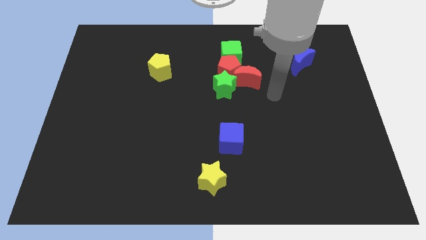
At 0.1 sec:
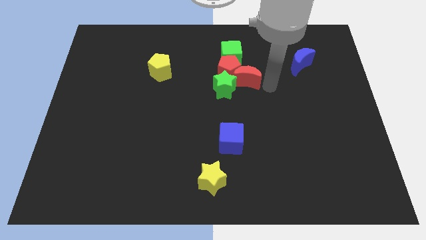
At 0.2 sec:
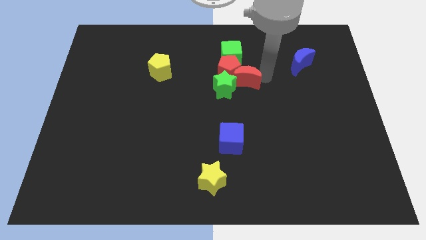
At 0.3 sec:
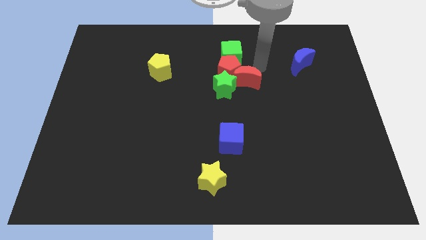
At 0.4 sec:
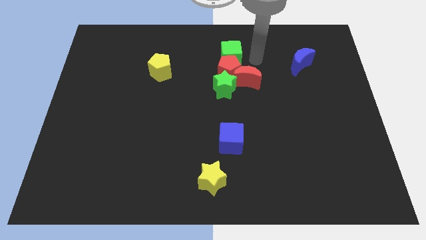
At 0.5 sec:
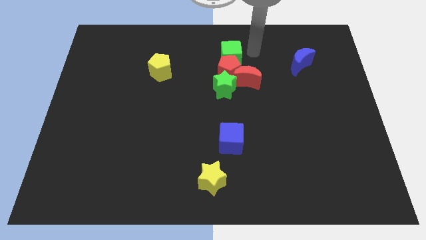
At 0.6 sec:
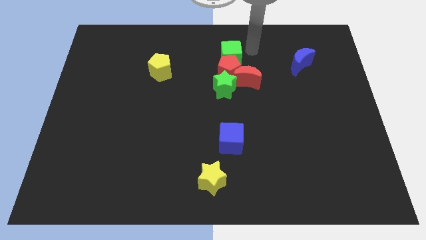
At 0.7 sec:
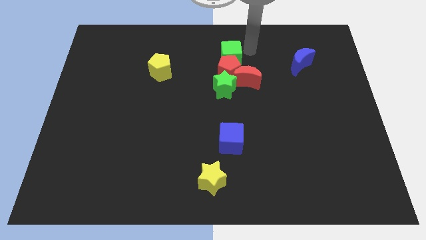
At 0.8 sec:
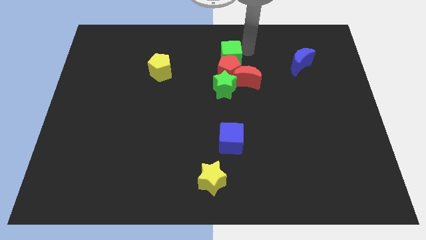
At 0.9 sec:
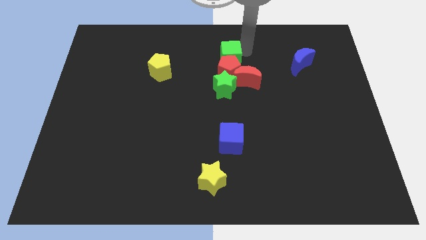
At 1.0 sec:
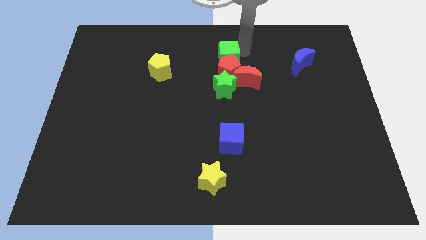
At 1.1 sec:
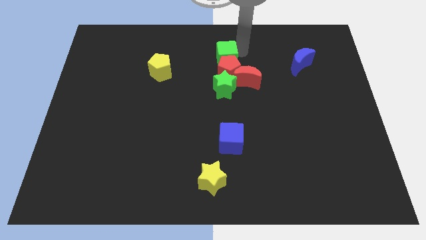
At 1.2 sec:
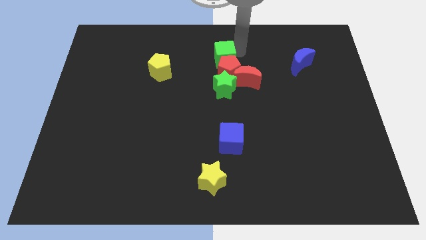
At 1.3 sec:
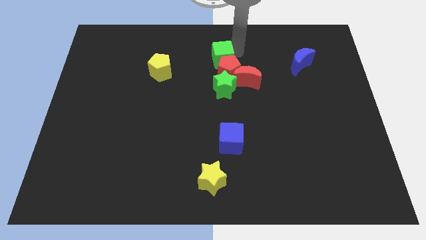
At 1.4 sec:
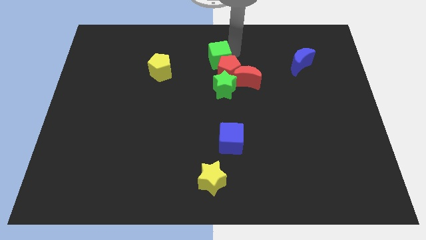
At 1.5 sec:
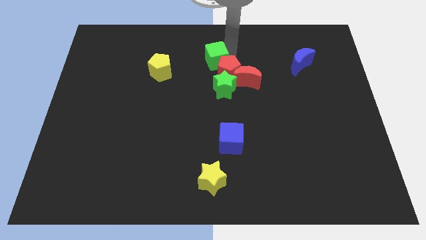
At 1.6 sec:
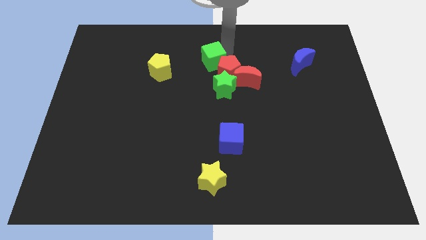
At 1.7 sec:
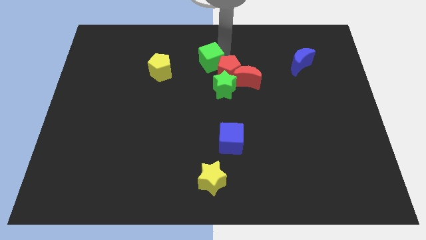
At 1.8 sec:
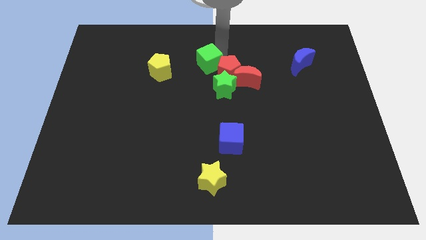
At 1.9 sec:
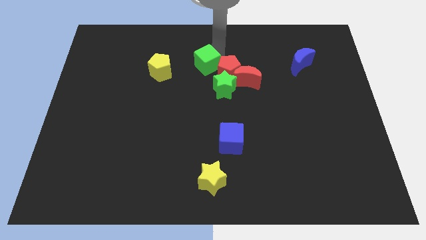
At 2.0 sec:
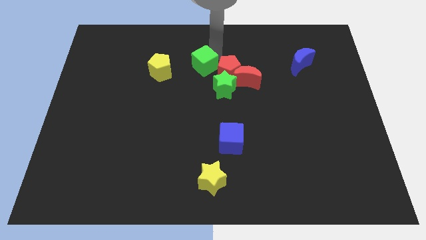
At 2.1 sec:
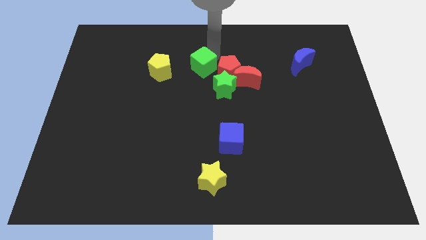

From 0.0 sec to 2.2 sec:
move the green cube a little down and then left

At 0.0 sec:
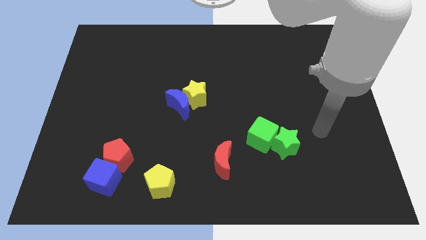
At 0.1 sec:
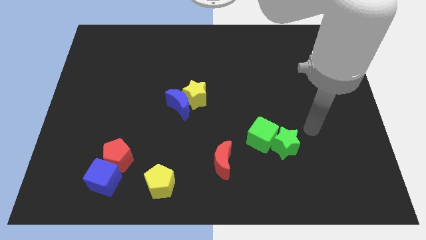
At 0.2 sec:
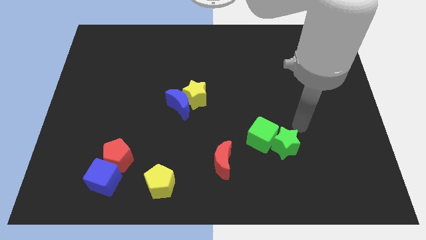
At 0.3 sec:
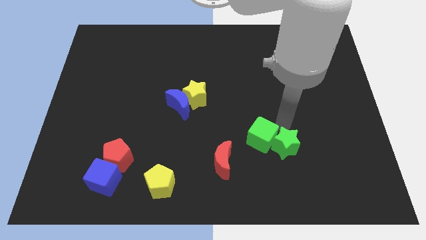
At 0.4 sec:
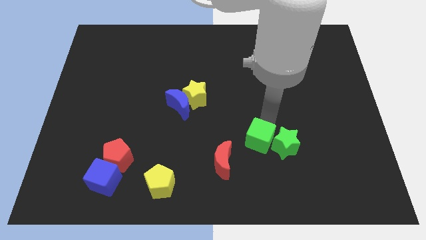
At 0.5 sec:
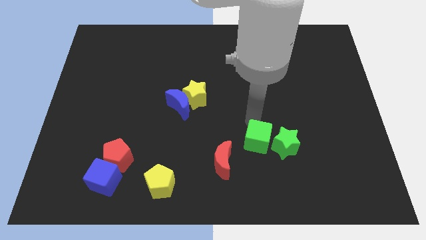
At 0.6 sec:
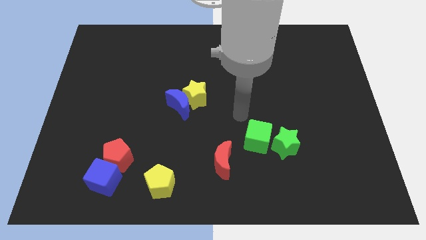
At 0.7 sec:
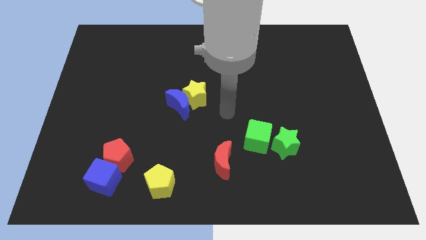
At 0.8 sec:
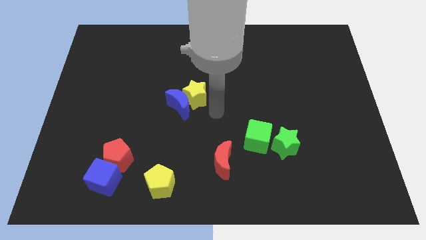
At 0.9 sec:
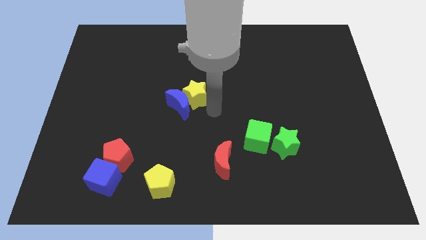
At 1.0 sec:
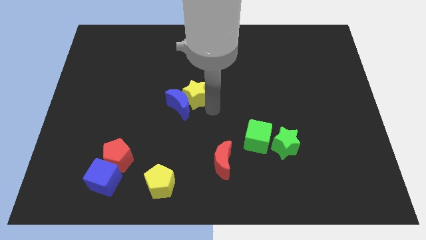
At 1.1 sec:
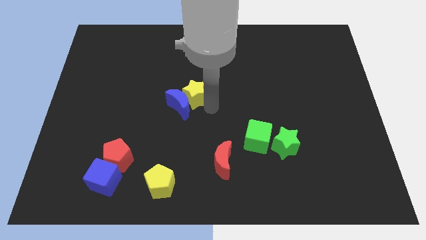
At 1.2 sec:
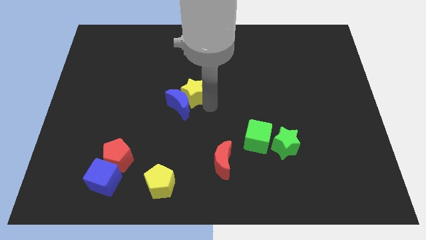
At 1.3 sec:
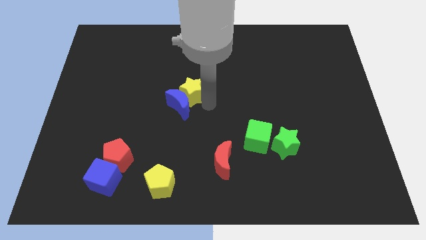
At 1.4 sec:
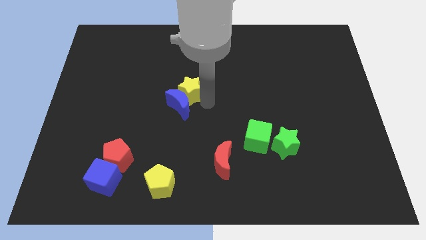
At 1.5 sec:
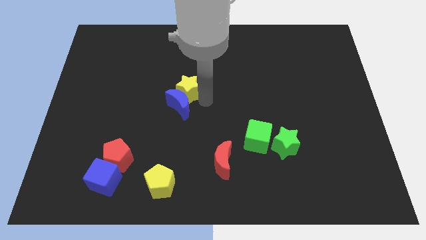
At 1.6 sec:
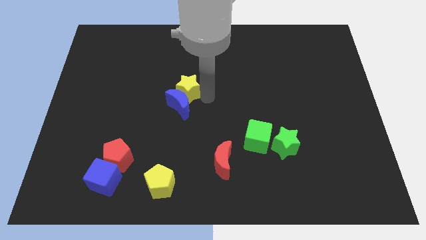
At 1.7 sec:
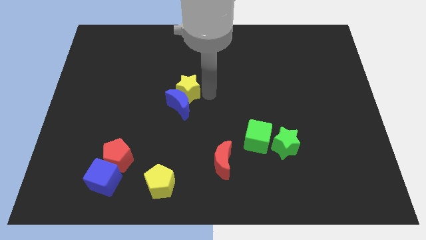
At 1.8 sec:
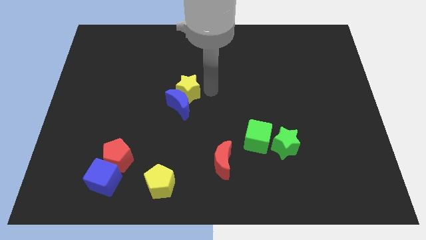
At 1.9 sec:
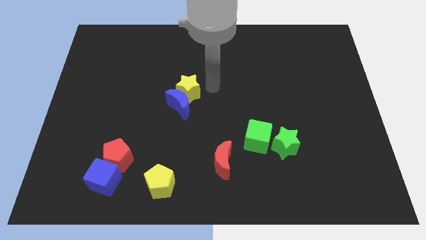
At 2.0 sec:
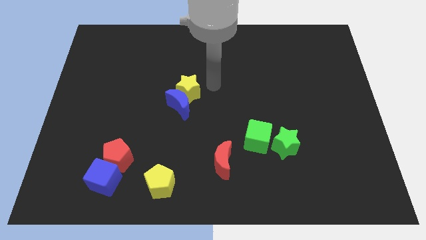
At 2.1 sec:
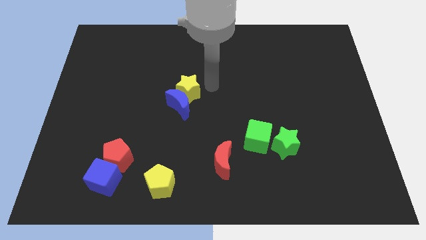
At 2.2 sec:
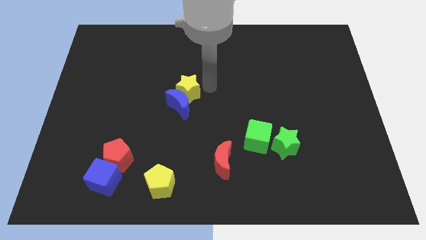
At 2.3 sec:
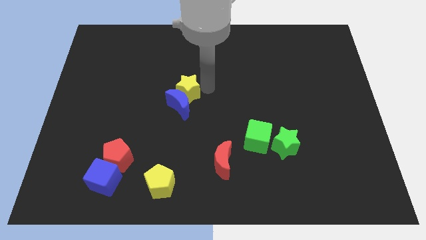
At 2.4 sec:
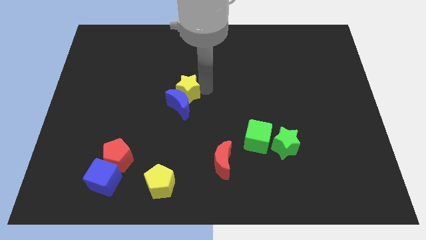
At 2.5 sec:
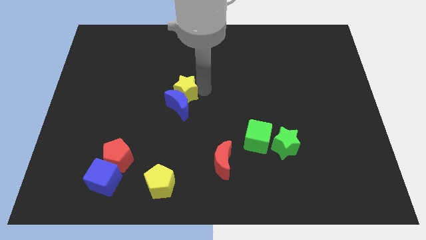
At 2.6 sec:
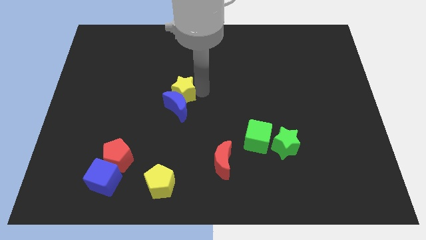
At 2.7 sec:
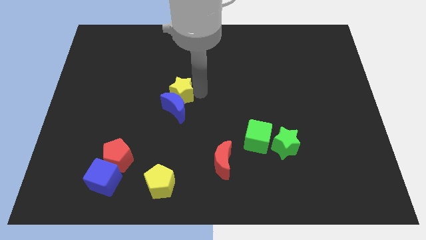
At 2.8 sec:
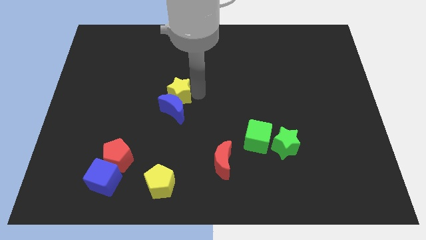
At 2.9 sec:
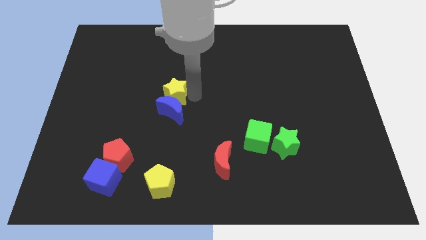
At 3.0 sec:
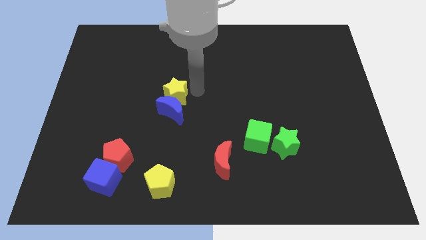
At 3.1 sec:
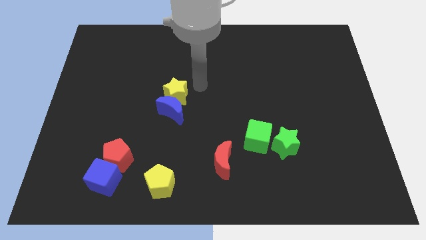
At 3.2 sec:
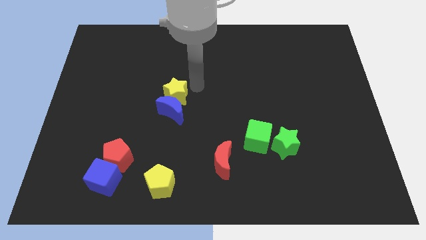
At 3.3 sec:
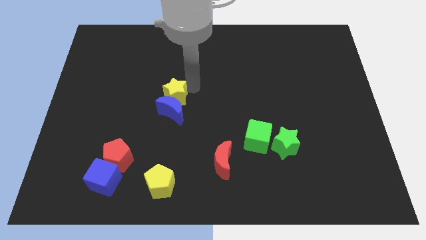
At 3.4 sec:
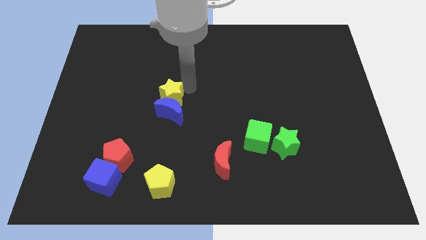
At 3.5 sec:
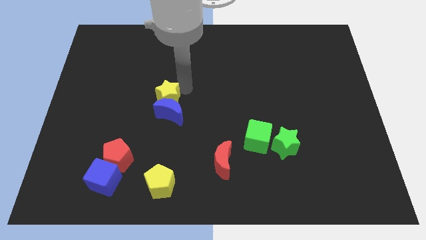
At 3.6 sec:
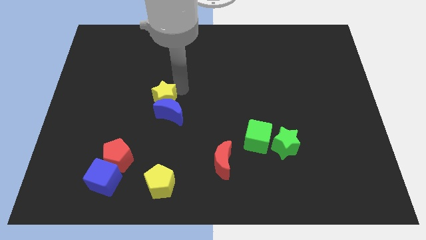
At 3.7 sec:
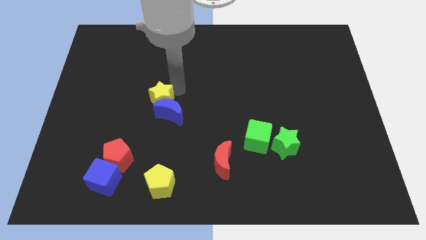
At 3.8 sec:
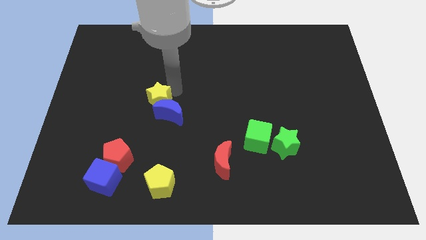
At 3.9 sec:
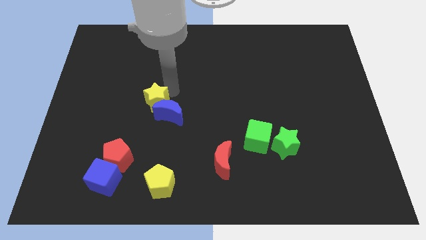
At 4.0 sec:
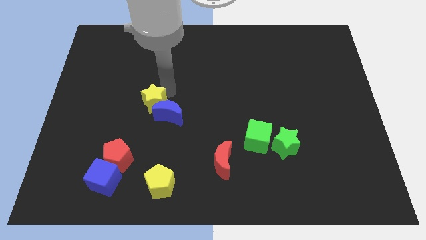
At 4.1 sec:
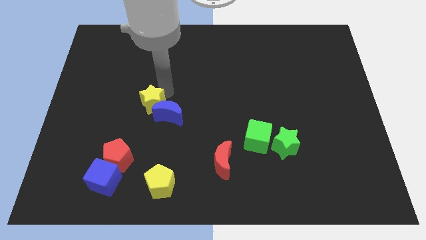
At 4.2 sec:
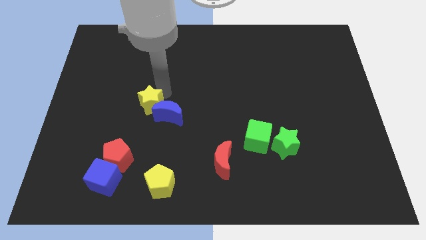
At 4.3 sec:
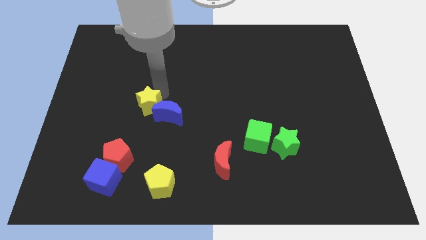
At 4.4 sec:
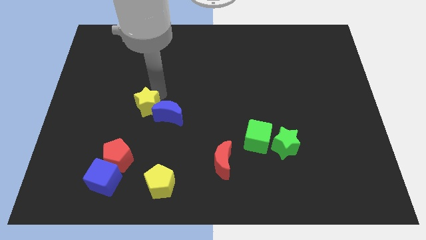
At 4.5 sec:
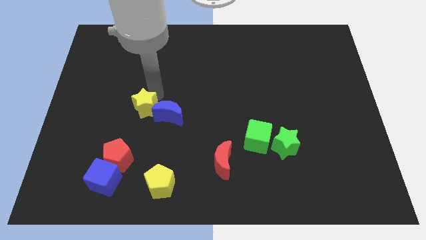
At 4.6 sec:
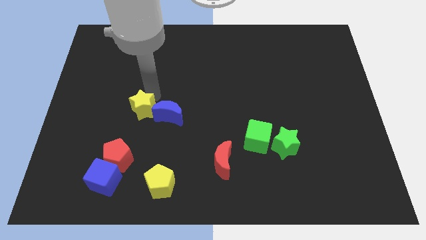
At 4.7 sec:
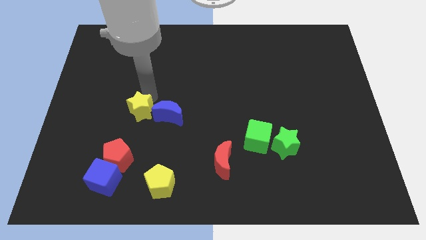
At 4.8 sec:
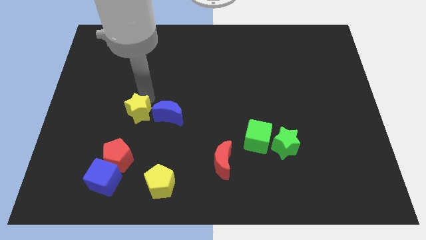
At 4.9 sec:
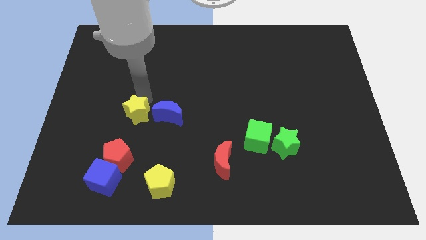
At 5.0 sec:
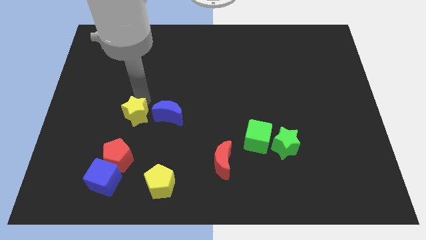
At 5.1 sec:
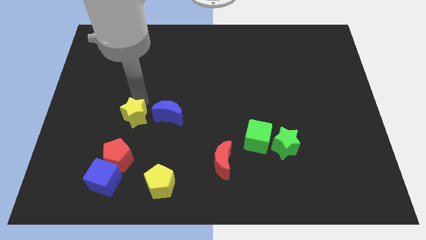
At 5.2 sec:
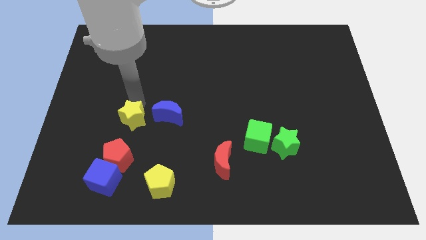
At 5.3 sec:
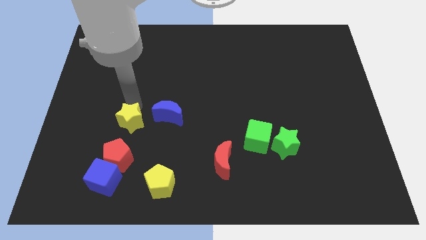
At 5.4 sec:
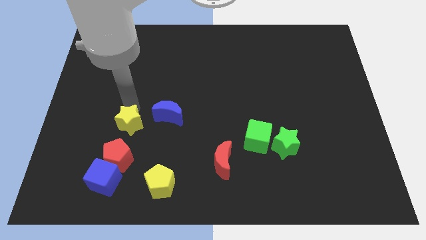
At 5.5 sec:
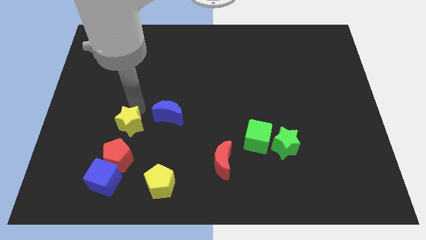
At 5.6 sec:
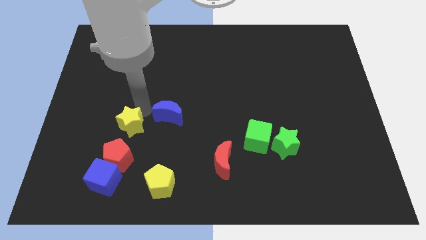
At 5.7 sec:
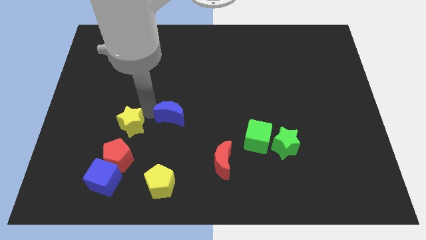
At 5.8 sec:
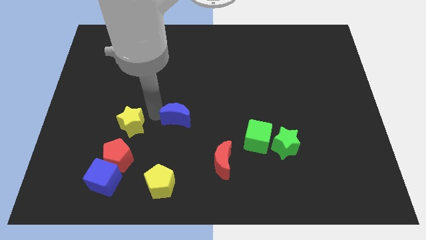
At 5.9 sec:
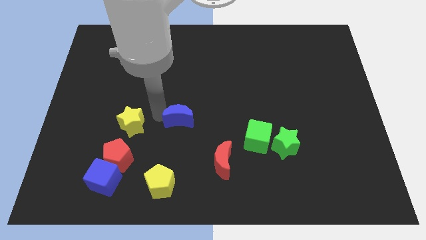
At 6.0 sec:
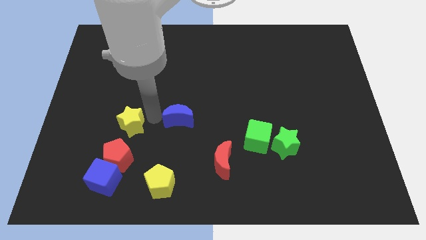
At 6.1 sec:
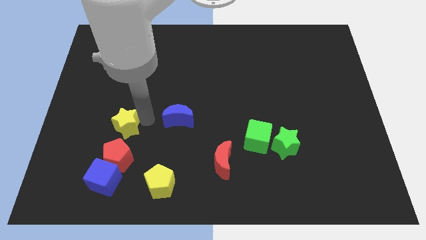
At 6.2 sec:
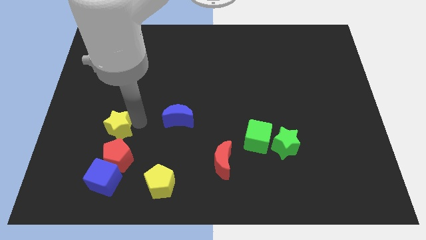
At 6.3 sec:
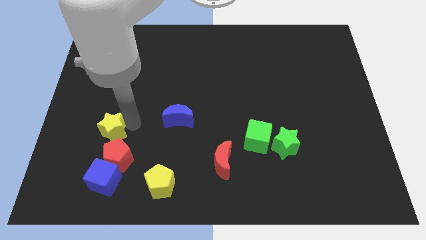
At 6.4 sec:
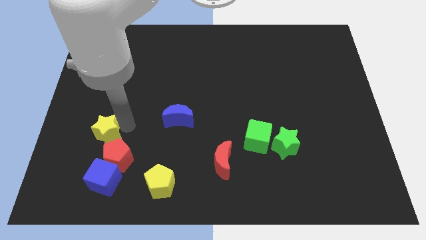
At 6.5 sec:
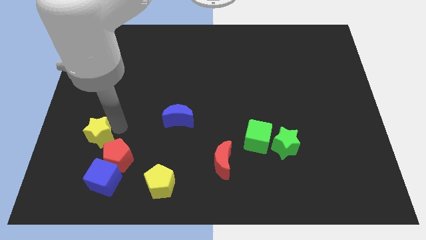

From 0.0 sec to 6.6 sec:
move the yellow star downwards and to the left diagonally
